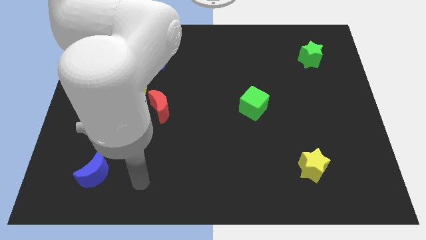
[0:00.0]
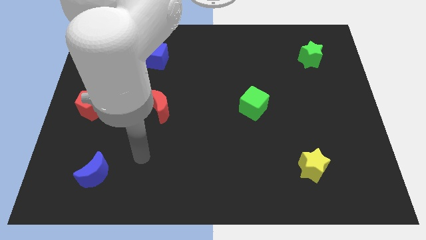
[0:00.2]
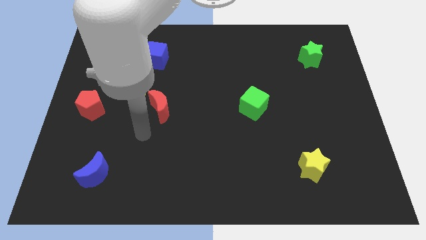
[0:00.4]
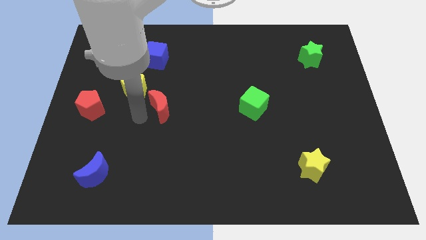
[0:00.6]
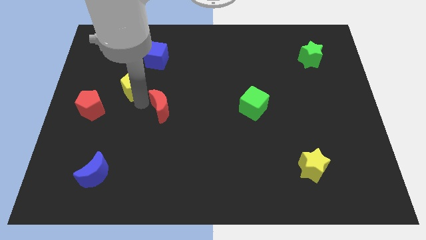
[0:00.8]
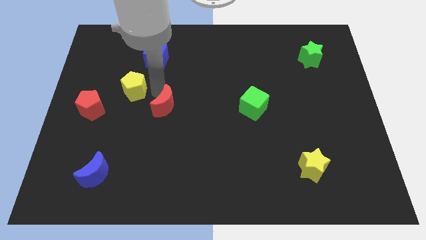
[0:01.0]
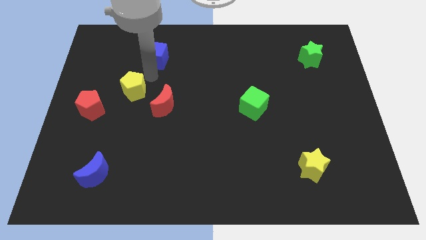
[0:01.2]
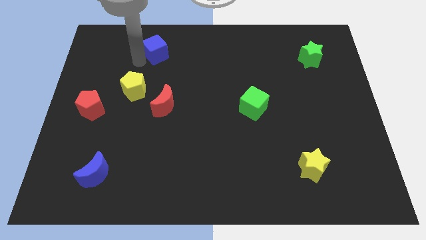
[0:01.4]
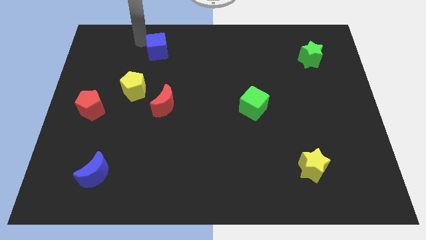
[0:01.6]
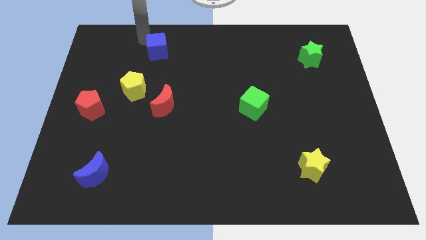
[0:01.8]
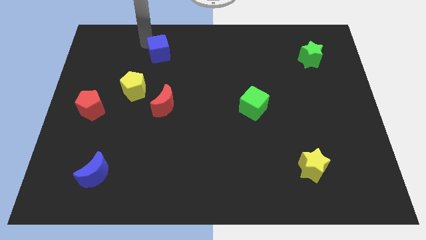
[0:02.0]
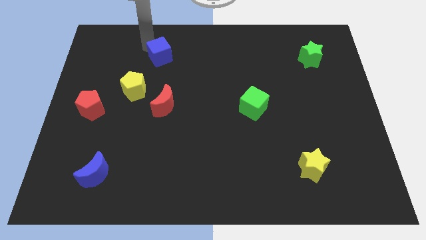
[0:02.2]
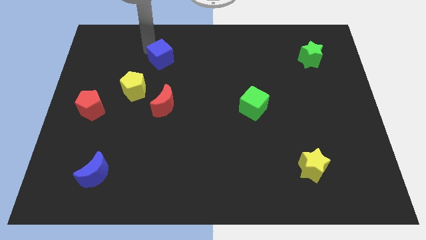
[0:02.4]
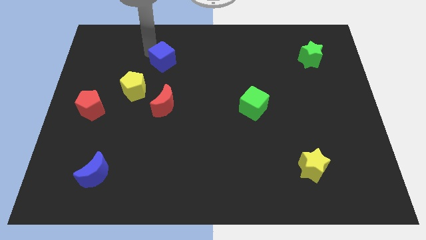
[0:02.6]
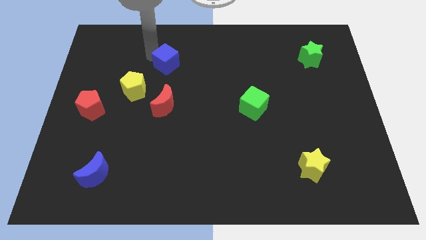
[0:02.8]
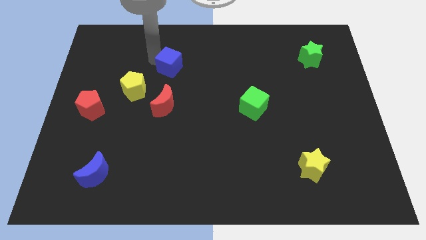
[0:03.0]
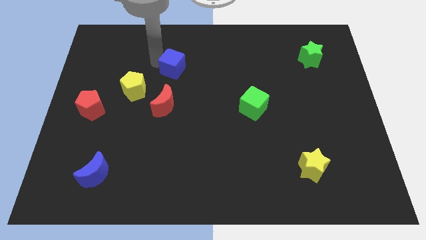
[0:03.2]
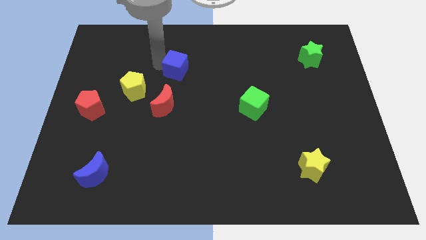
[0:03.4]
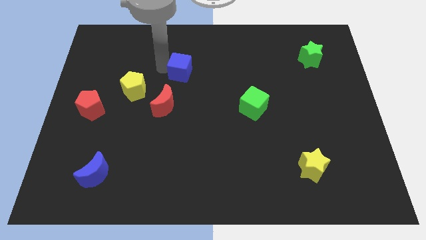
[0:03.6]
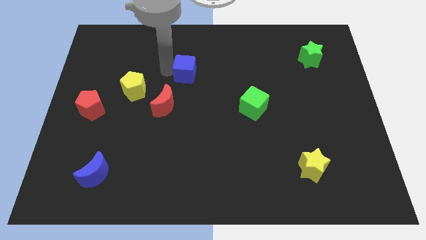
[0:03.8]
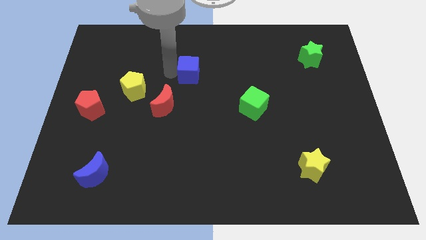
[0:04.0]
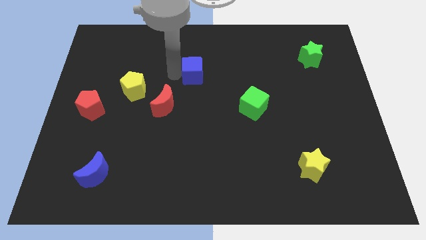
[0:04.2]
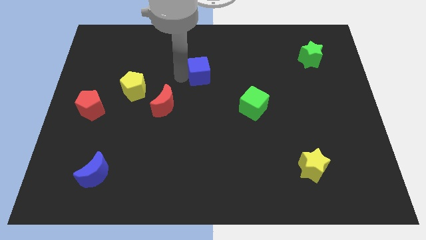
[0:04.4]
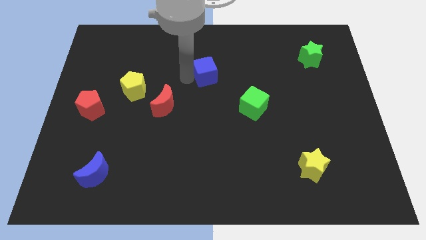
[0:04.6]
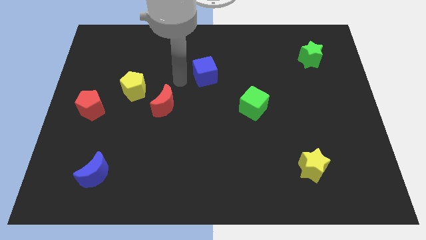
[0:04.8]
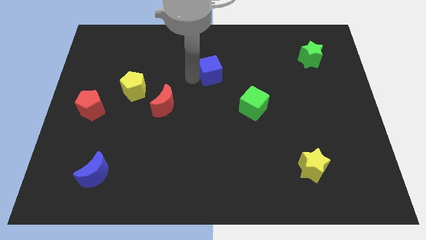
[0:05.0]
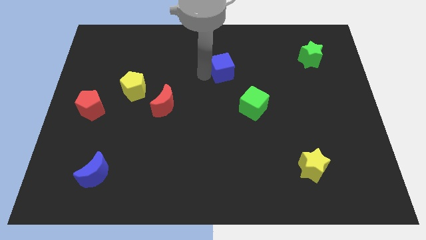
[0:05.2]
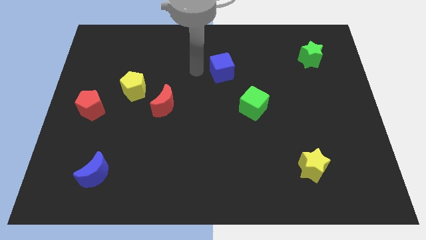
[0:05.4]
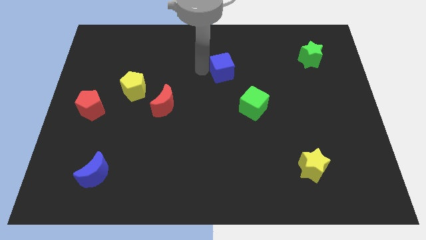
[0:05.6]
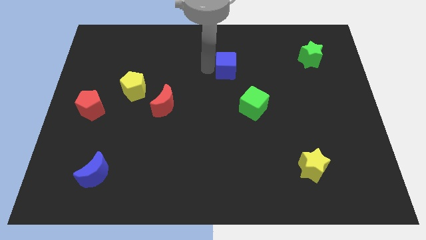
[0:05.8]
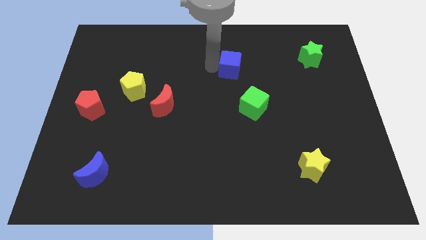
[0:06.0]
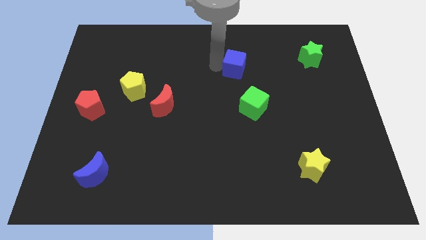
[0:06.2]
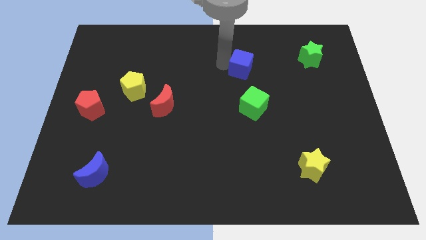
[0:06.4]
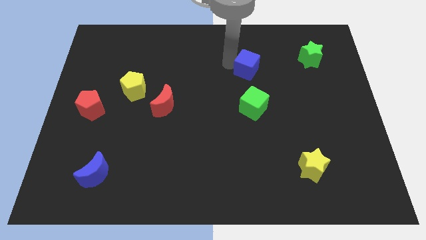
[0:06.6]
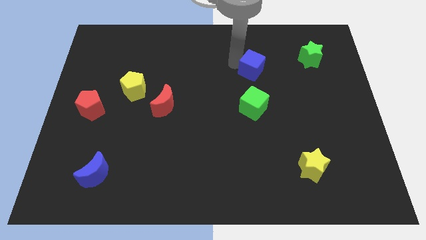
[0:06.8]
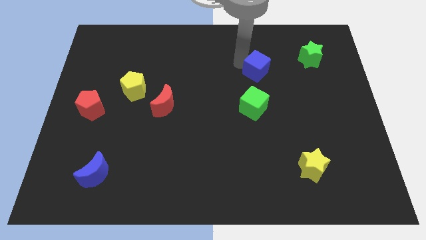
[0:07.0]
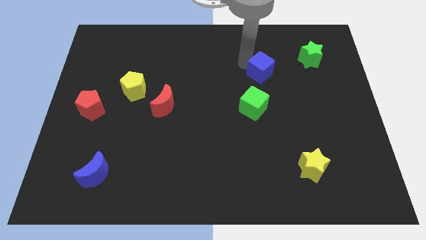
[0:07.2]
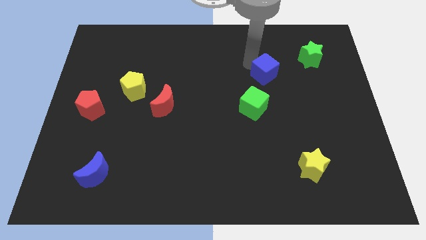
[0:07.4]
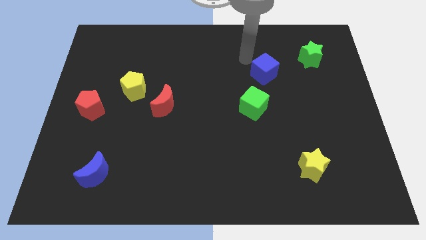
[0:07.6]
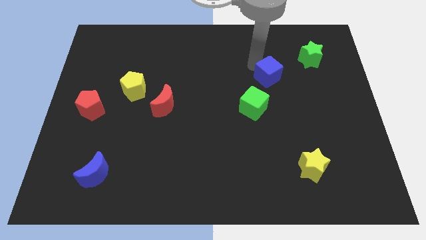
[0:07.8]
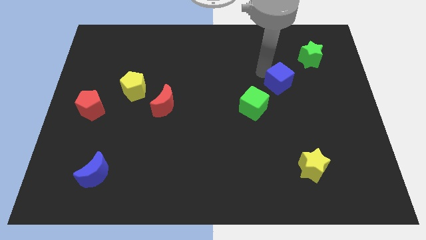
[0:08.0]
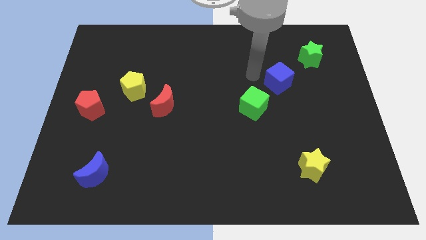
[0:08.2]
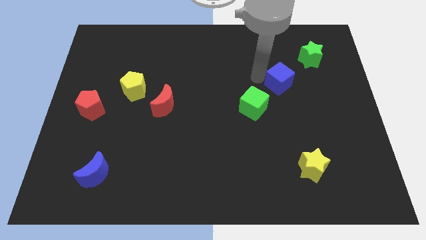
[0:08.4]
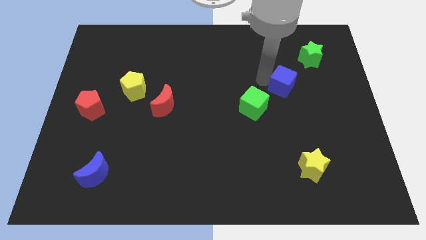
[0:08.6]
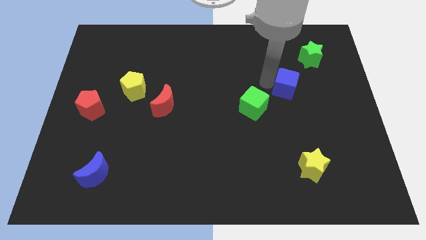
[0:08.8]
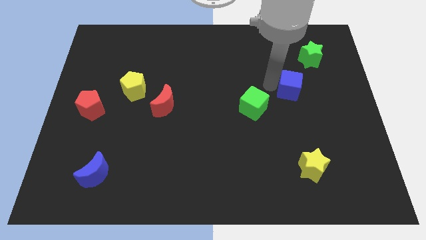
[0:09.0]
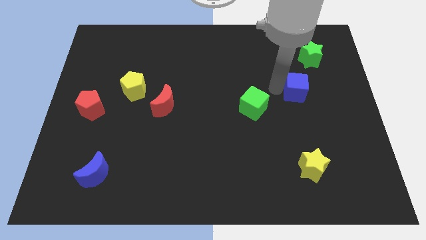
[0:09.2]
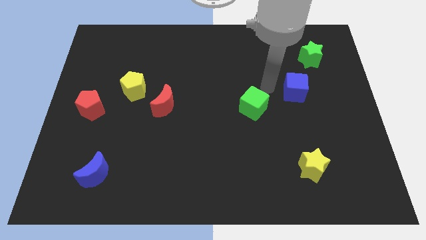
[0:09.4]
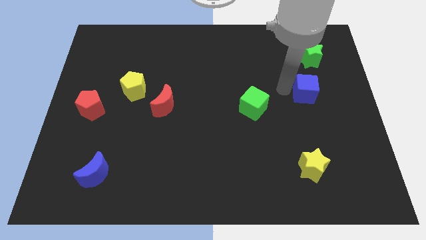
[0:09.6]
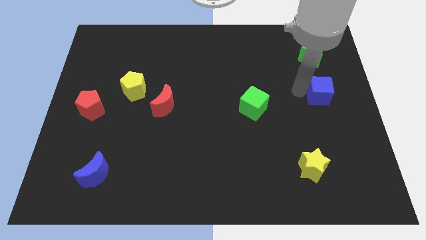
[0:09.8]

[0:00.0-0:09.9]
push the blue cube to the right side

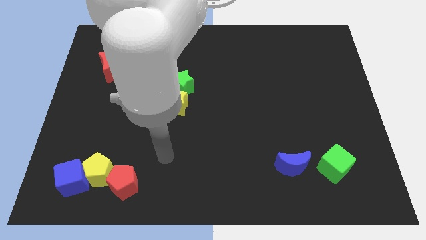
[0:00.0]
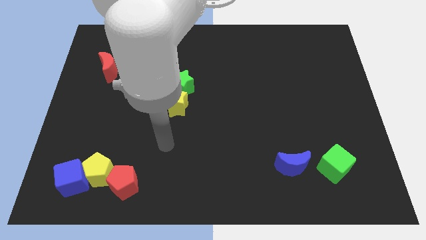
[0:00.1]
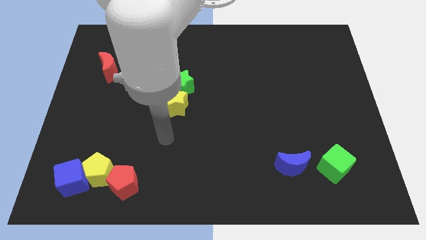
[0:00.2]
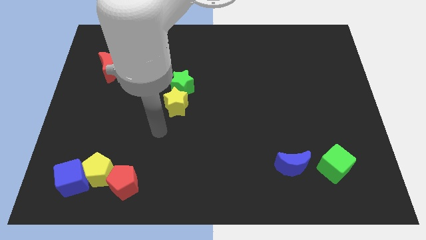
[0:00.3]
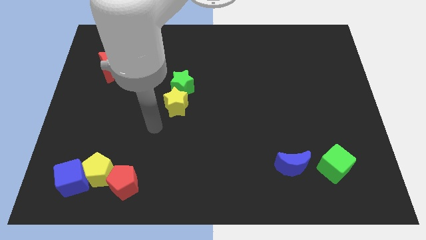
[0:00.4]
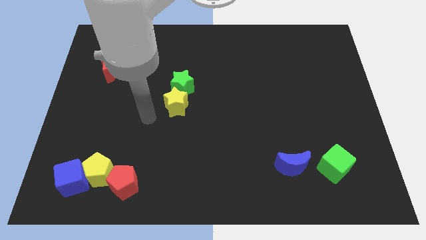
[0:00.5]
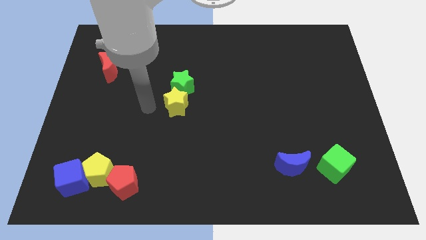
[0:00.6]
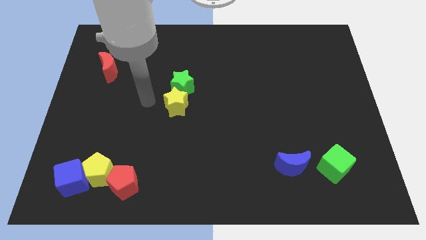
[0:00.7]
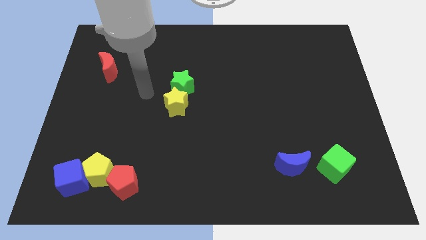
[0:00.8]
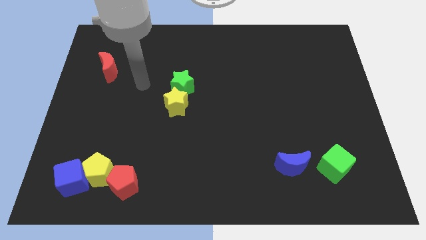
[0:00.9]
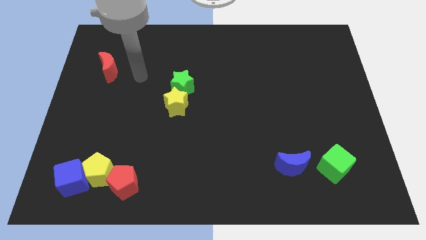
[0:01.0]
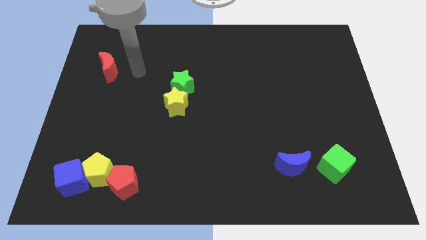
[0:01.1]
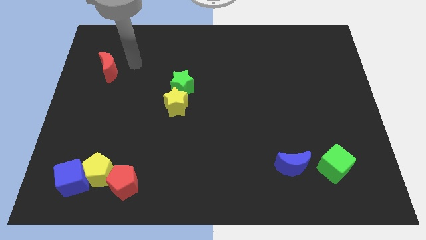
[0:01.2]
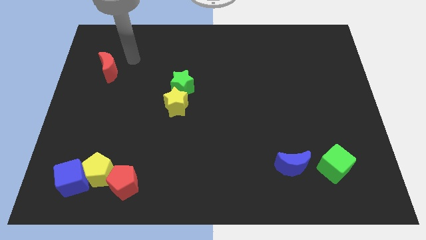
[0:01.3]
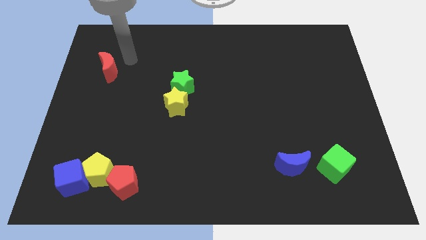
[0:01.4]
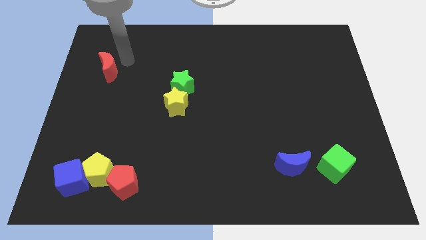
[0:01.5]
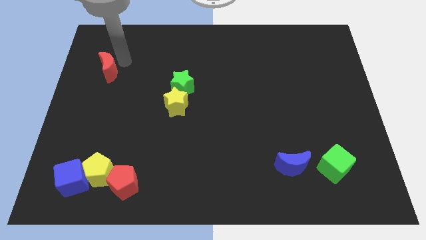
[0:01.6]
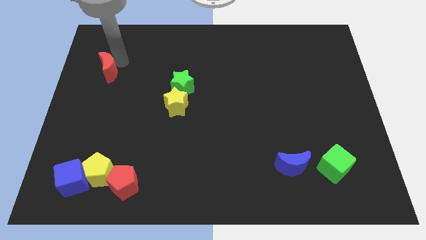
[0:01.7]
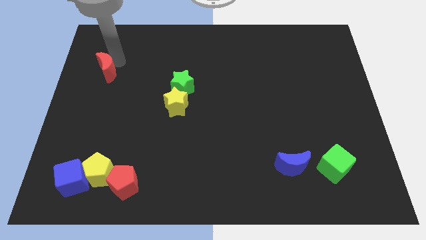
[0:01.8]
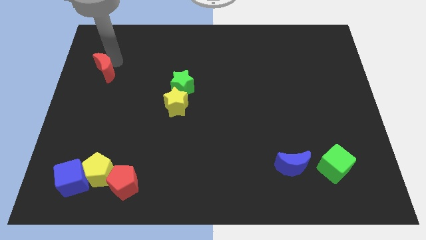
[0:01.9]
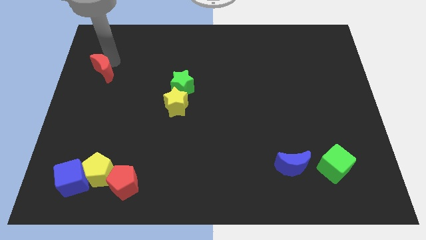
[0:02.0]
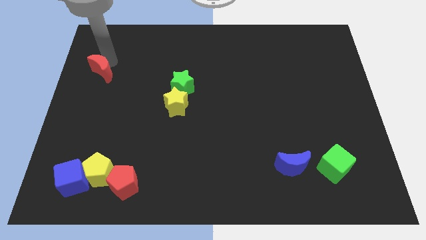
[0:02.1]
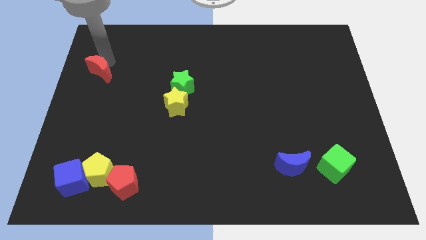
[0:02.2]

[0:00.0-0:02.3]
slide the red moon to the left side of the board
